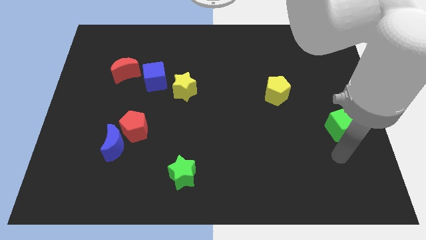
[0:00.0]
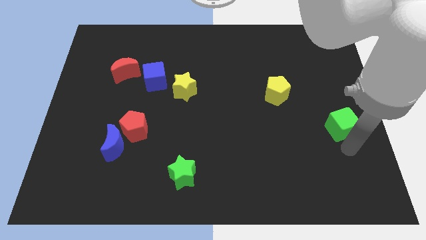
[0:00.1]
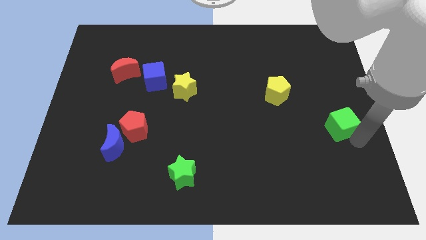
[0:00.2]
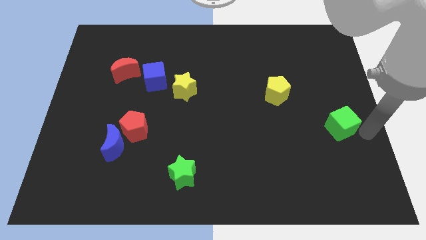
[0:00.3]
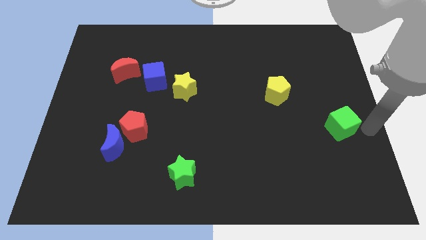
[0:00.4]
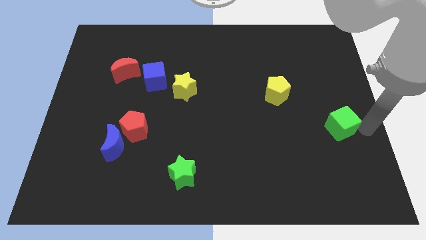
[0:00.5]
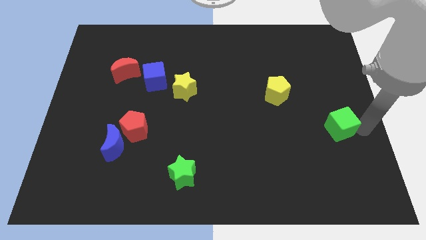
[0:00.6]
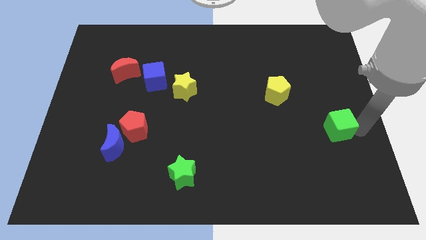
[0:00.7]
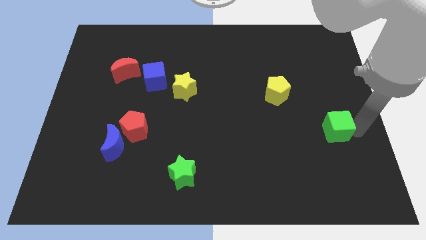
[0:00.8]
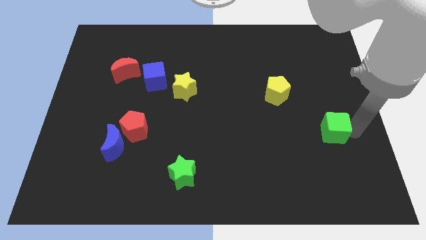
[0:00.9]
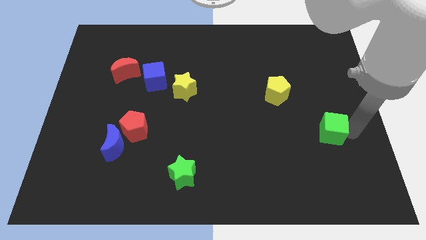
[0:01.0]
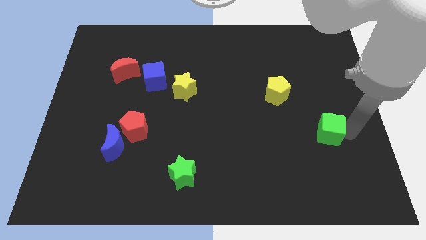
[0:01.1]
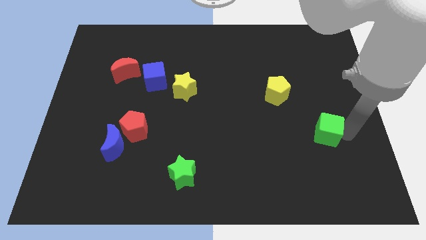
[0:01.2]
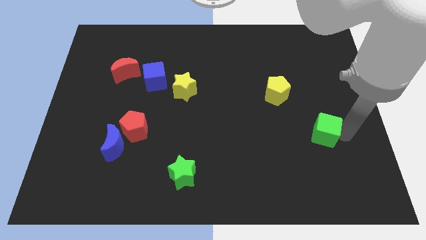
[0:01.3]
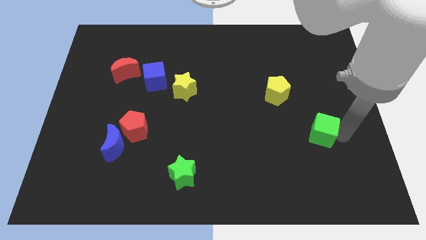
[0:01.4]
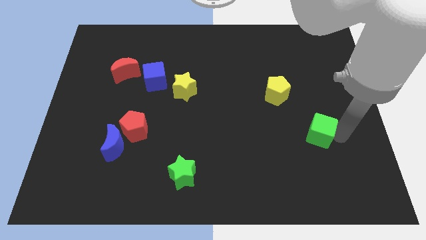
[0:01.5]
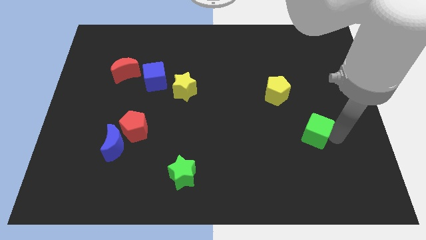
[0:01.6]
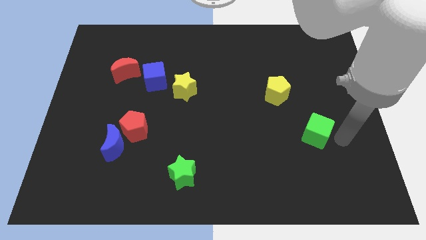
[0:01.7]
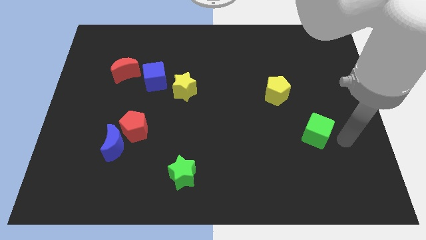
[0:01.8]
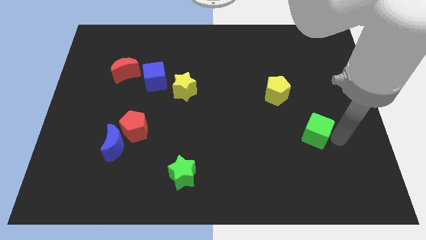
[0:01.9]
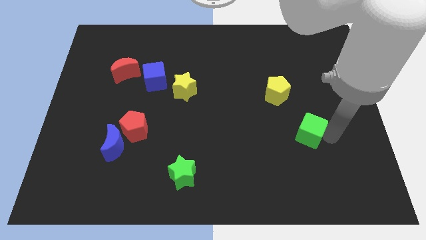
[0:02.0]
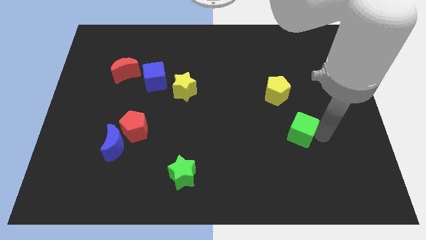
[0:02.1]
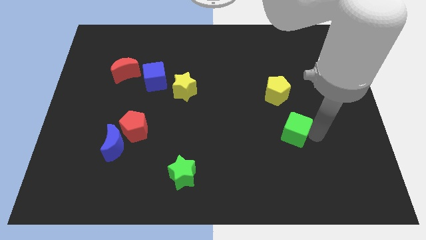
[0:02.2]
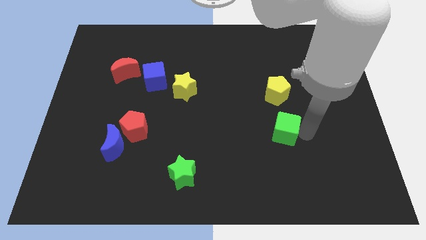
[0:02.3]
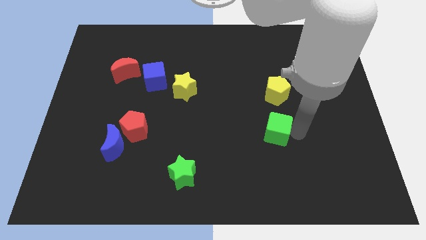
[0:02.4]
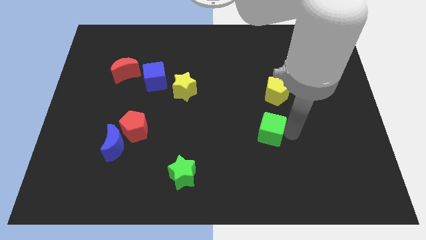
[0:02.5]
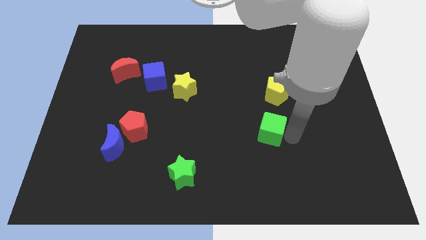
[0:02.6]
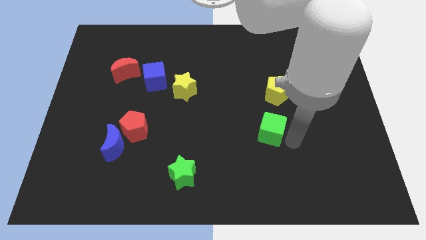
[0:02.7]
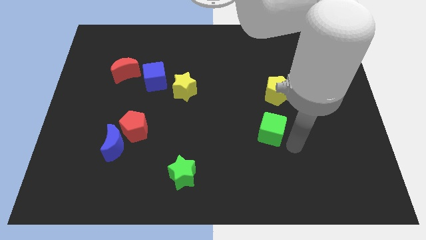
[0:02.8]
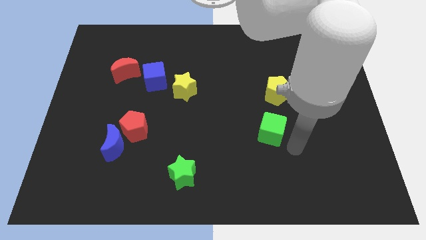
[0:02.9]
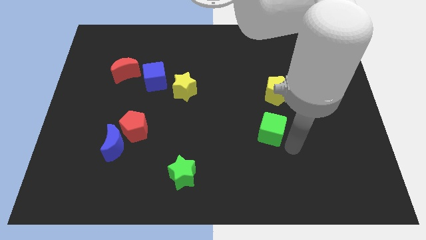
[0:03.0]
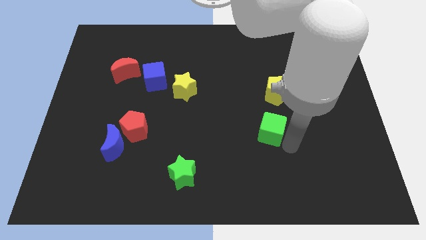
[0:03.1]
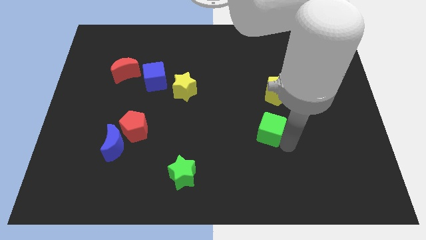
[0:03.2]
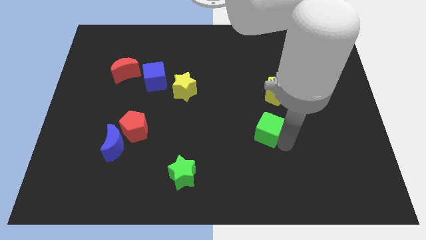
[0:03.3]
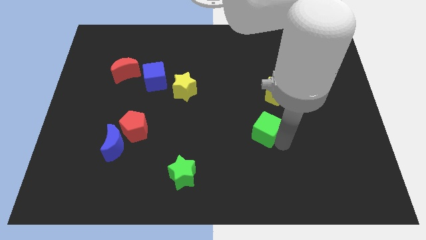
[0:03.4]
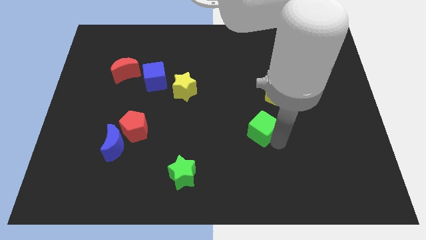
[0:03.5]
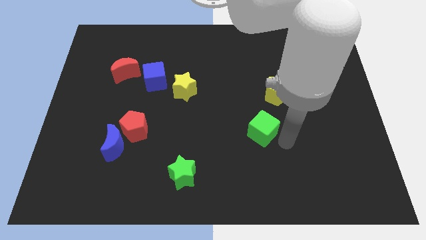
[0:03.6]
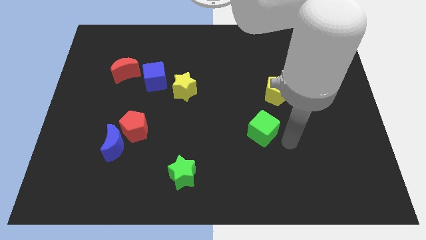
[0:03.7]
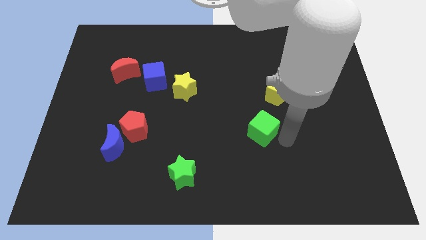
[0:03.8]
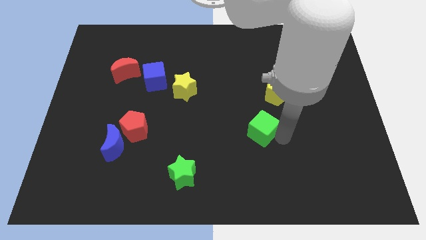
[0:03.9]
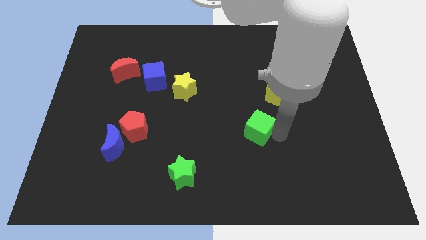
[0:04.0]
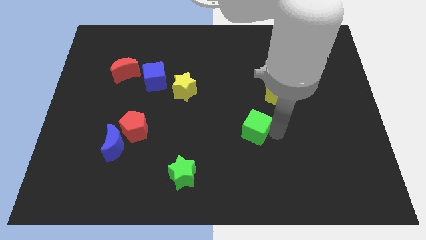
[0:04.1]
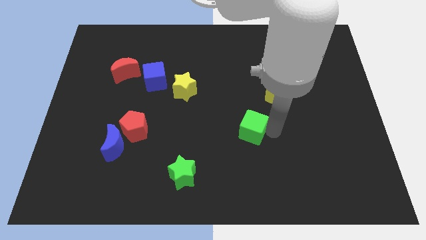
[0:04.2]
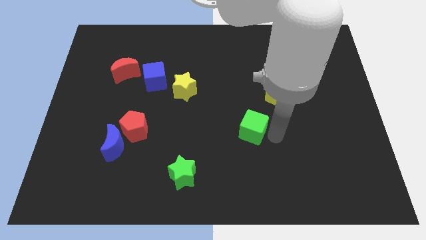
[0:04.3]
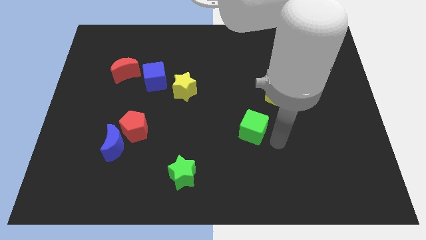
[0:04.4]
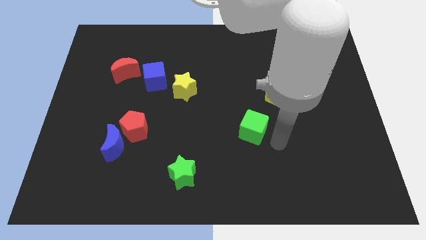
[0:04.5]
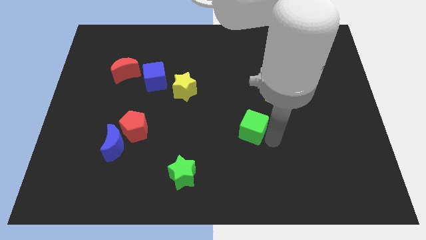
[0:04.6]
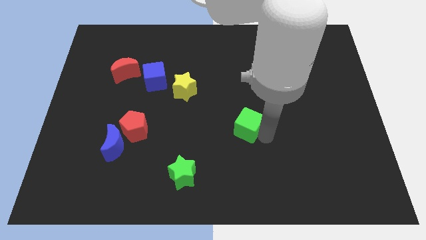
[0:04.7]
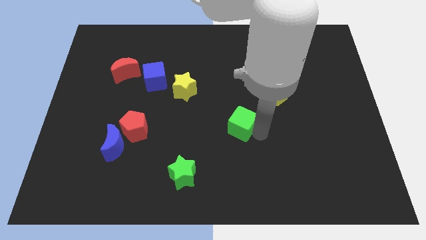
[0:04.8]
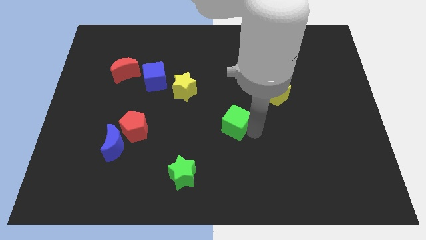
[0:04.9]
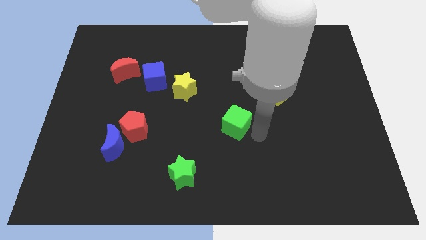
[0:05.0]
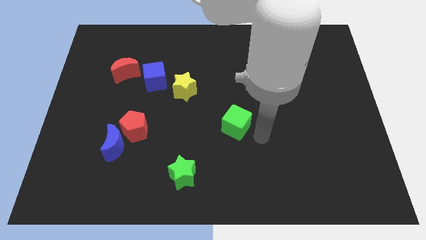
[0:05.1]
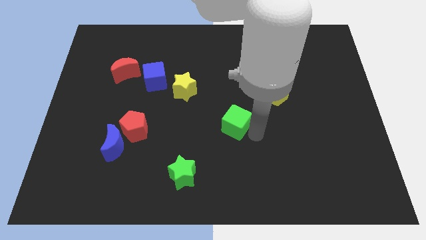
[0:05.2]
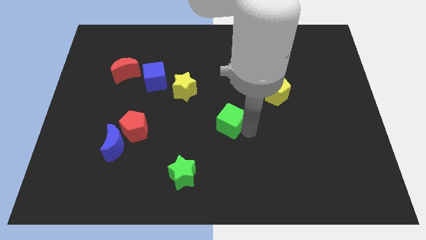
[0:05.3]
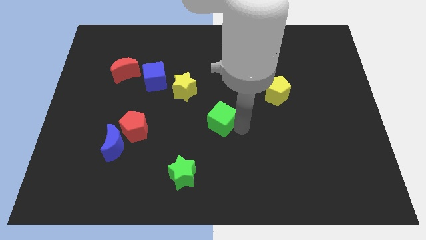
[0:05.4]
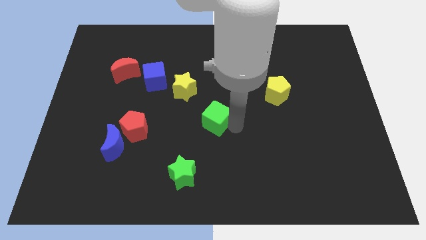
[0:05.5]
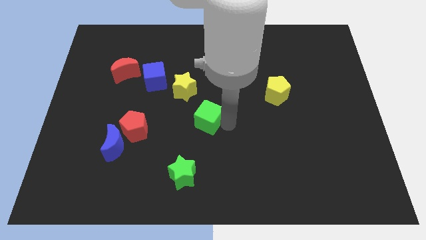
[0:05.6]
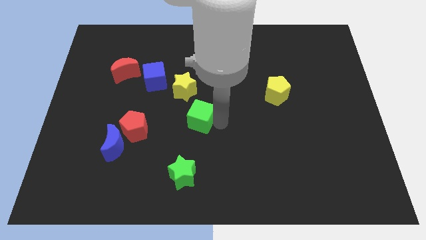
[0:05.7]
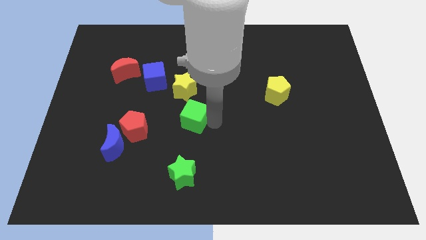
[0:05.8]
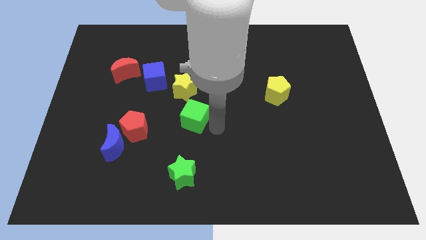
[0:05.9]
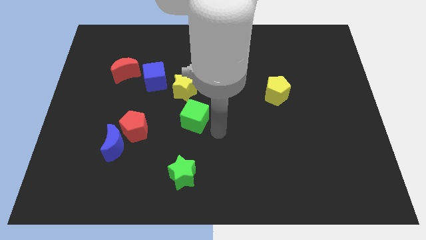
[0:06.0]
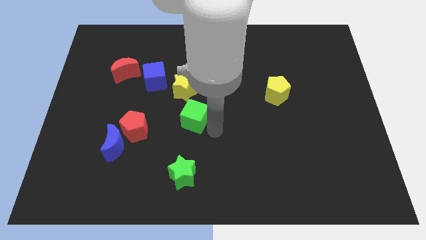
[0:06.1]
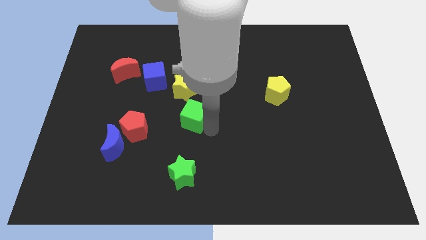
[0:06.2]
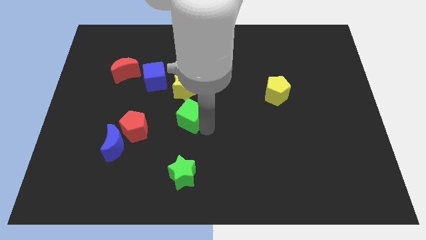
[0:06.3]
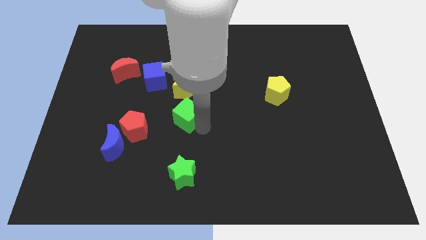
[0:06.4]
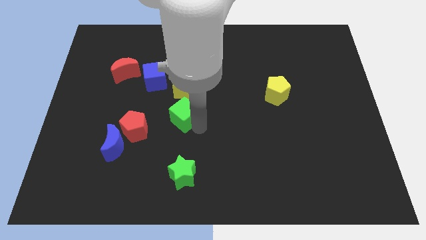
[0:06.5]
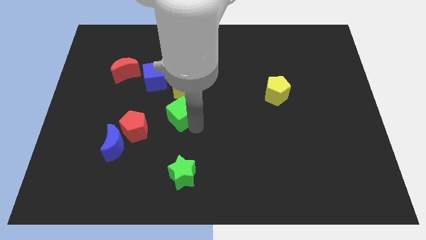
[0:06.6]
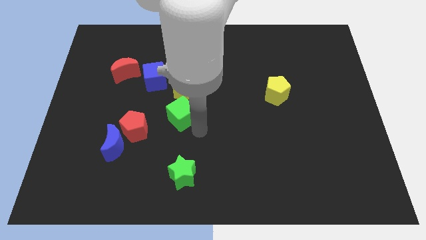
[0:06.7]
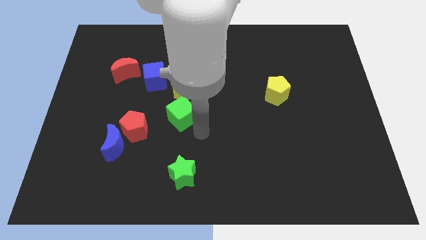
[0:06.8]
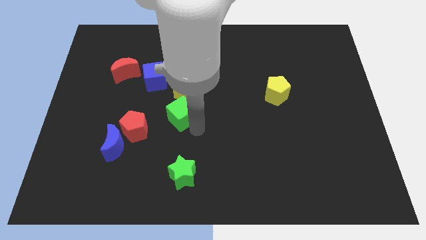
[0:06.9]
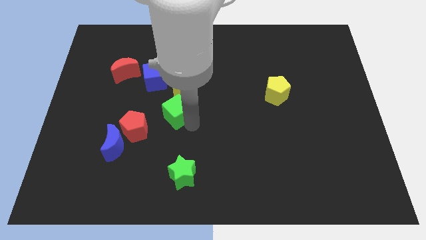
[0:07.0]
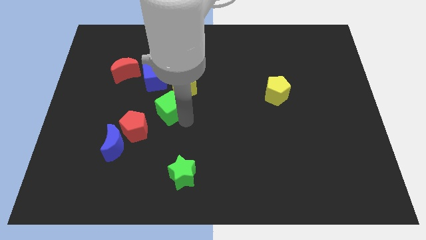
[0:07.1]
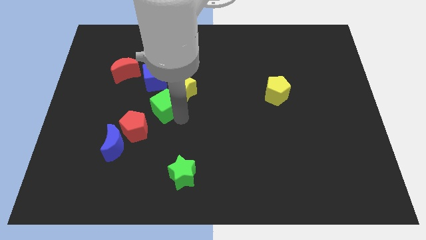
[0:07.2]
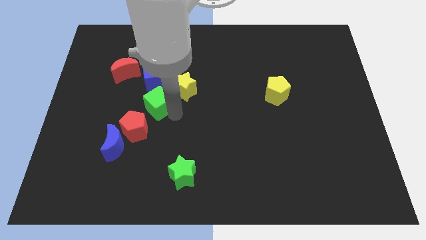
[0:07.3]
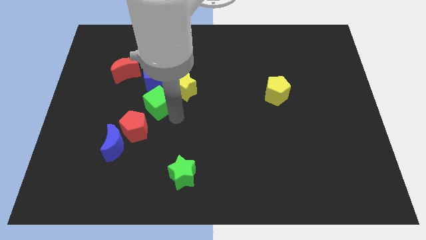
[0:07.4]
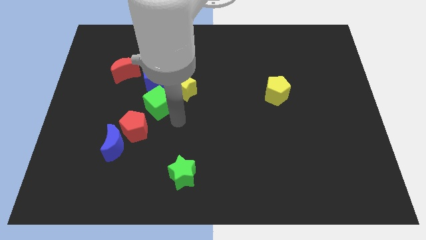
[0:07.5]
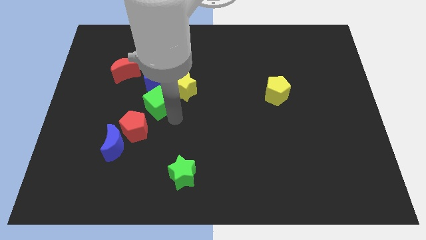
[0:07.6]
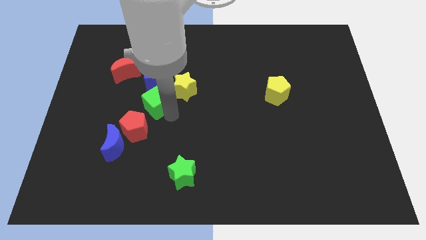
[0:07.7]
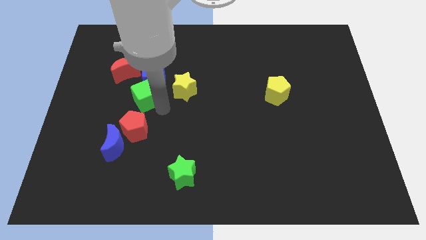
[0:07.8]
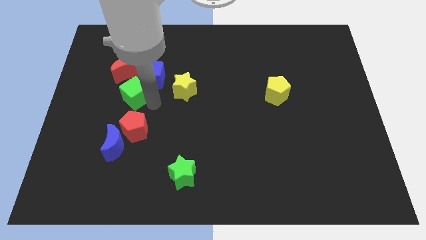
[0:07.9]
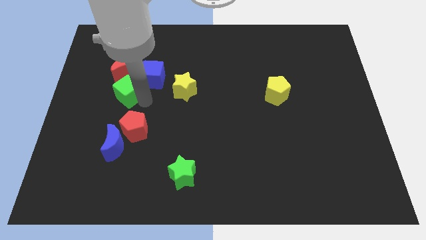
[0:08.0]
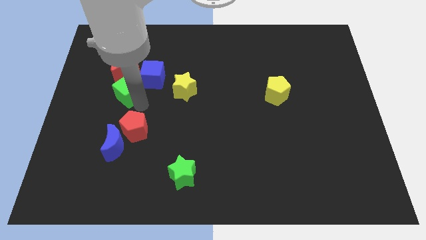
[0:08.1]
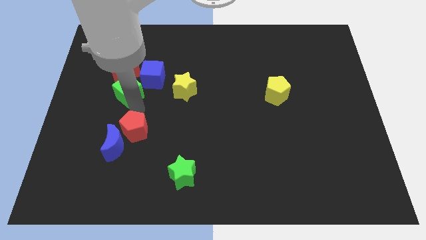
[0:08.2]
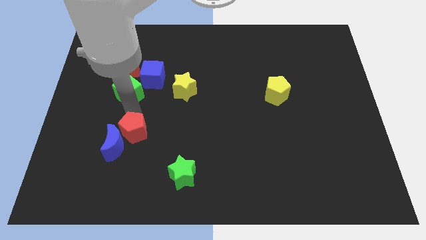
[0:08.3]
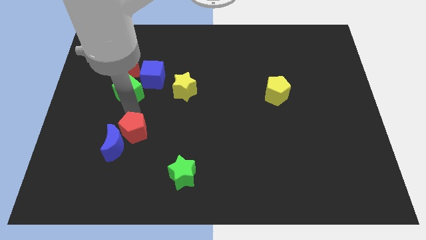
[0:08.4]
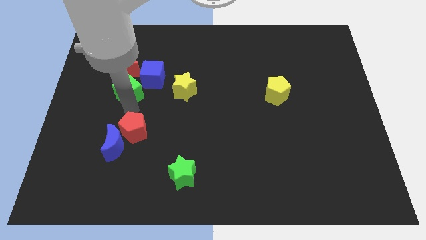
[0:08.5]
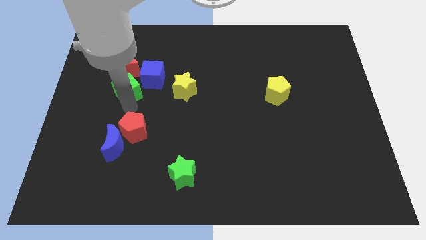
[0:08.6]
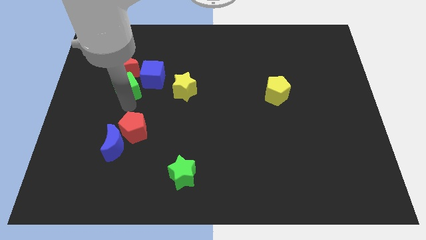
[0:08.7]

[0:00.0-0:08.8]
push the green cube to the red moon
